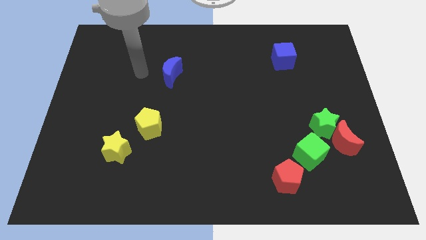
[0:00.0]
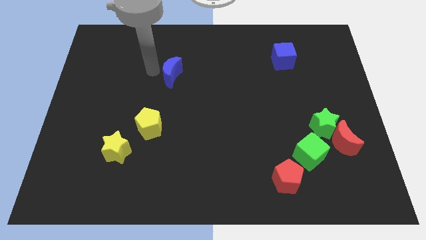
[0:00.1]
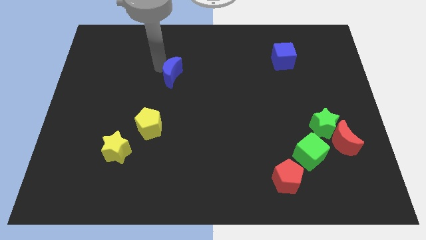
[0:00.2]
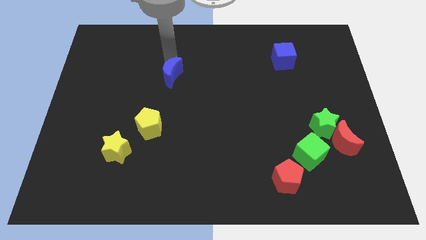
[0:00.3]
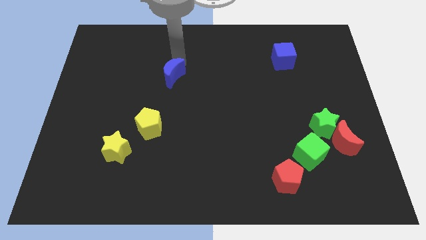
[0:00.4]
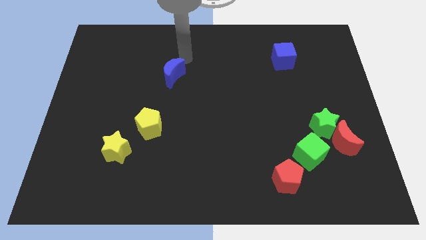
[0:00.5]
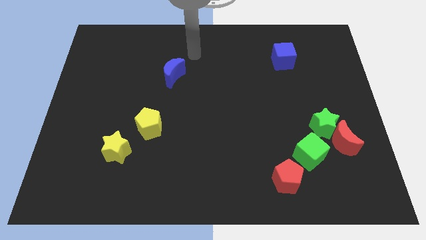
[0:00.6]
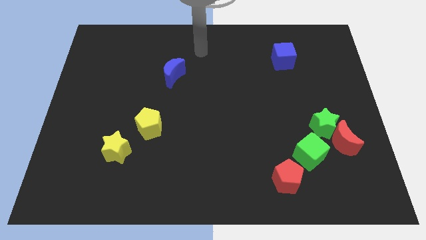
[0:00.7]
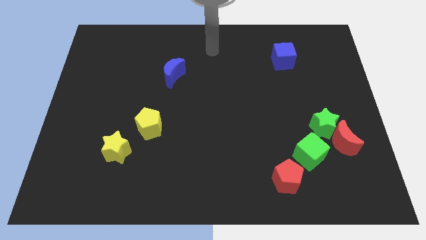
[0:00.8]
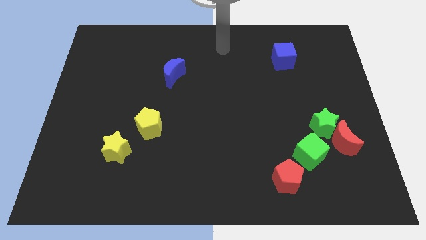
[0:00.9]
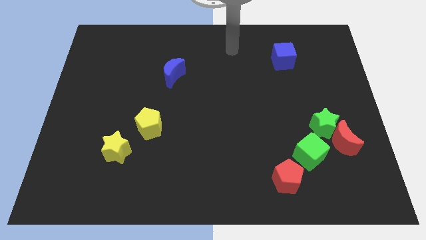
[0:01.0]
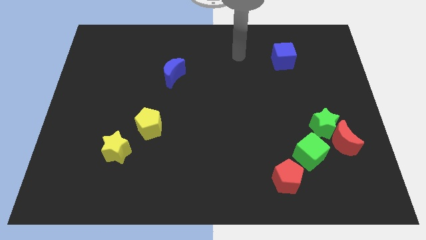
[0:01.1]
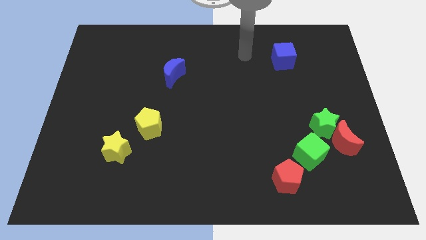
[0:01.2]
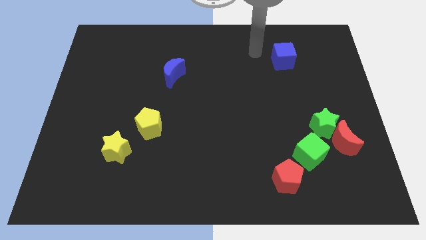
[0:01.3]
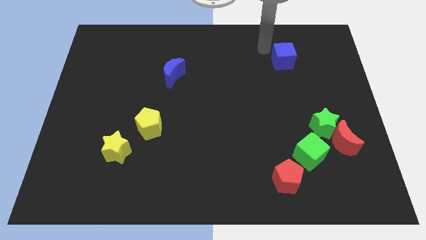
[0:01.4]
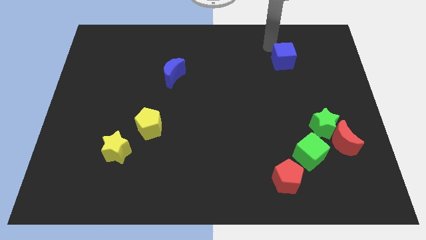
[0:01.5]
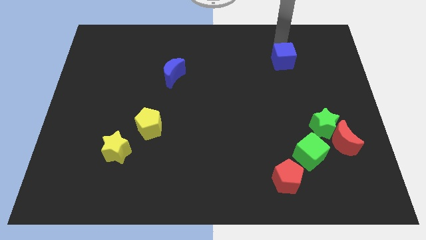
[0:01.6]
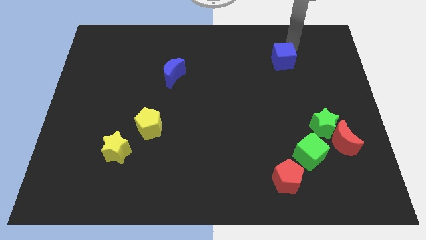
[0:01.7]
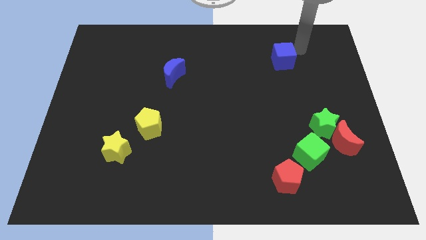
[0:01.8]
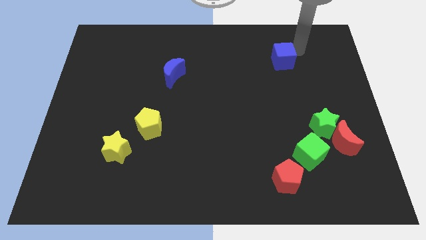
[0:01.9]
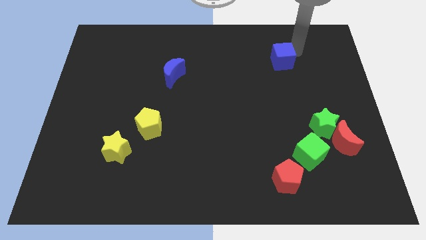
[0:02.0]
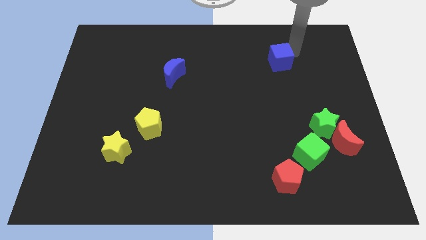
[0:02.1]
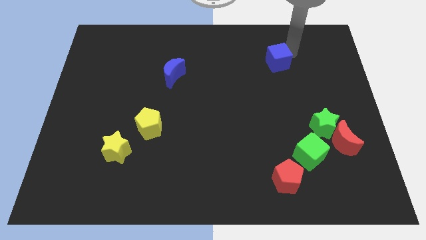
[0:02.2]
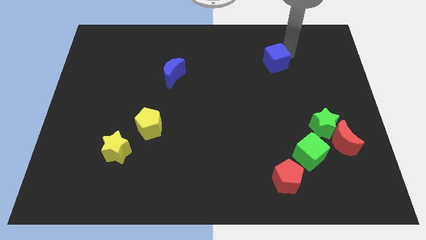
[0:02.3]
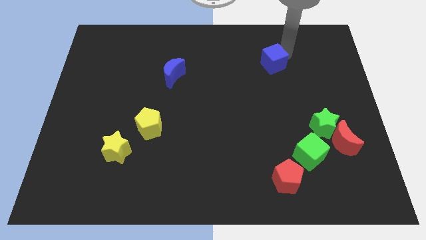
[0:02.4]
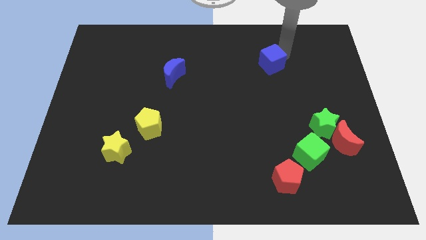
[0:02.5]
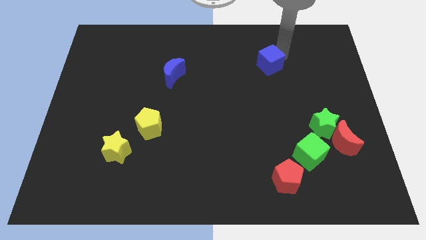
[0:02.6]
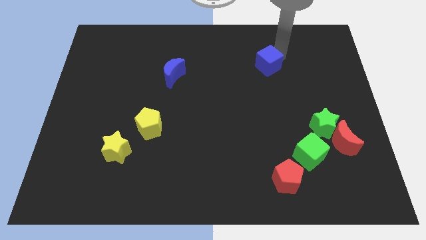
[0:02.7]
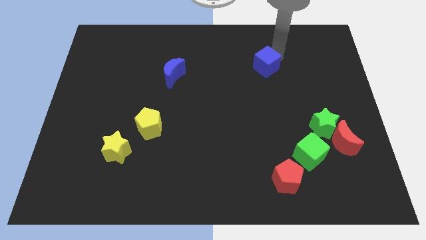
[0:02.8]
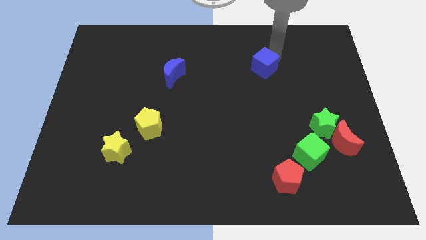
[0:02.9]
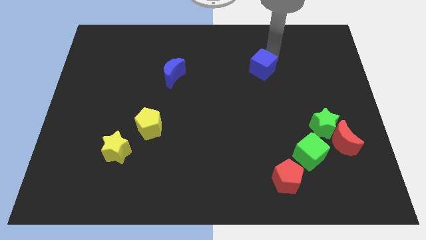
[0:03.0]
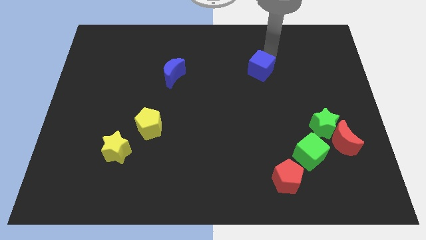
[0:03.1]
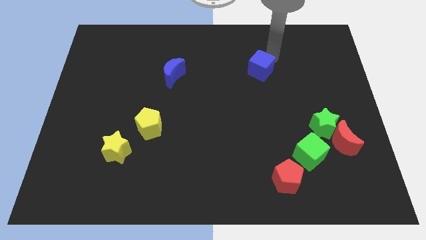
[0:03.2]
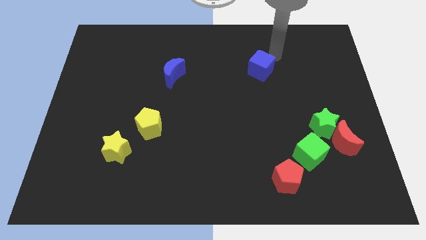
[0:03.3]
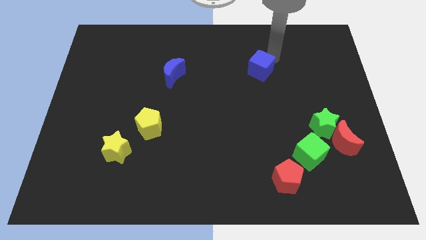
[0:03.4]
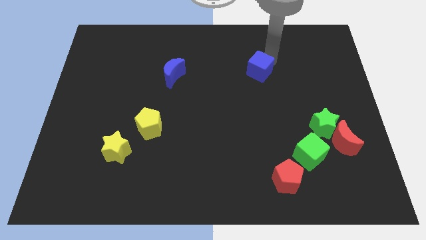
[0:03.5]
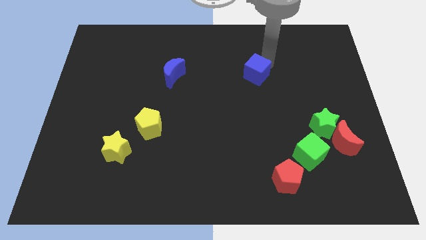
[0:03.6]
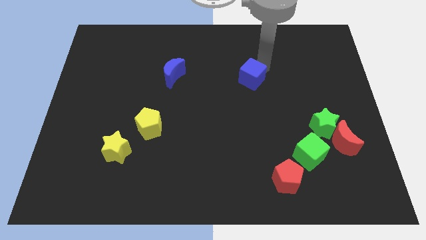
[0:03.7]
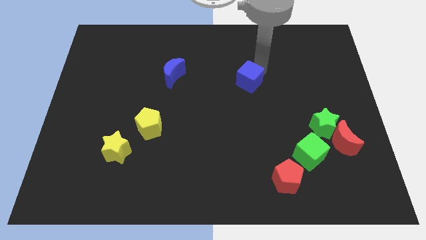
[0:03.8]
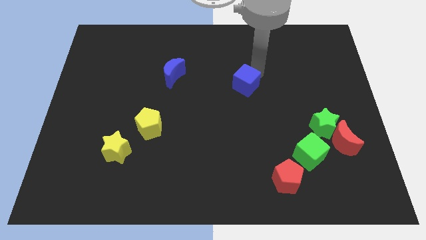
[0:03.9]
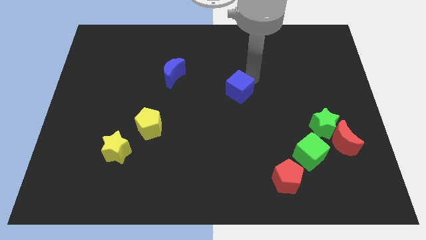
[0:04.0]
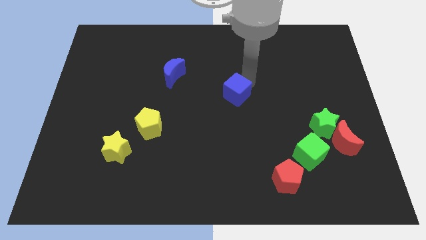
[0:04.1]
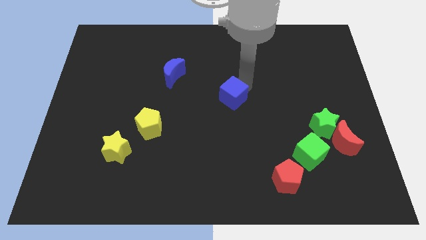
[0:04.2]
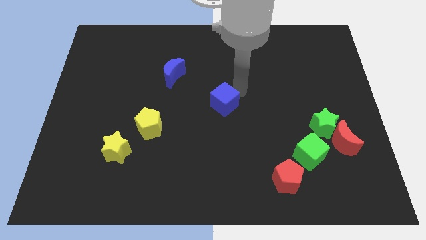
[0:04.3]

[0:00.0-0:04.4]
push the blue cube downwards and left

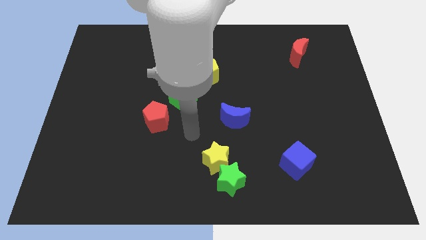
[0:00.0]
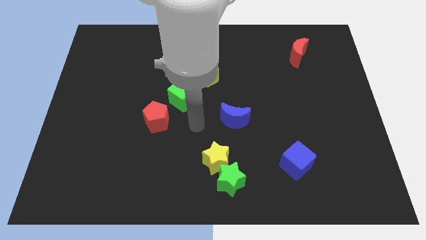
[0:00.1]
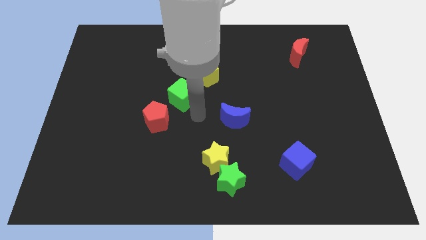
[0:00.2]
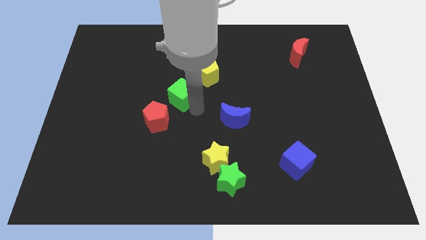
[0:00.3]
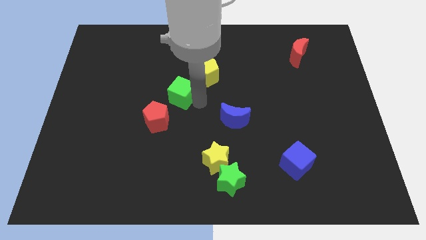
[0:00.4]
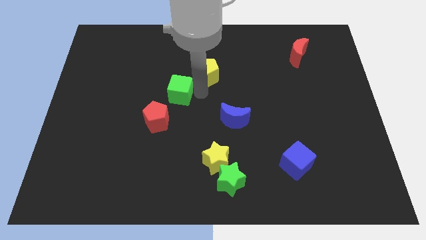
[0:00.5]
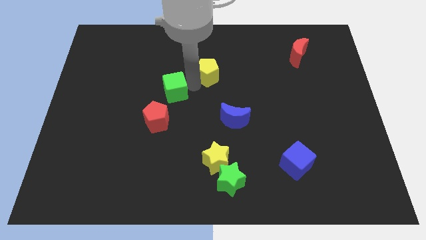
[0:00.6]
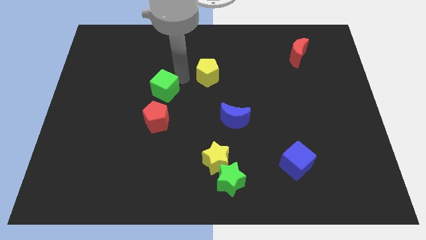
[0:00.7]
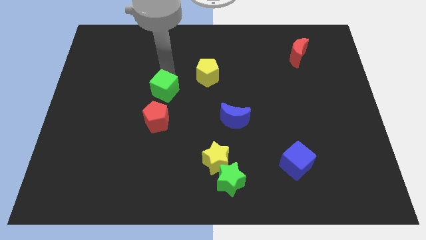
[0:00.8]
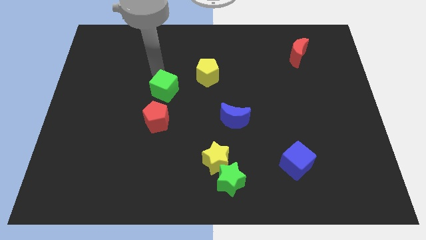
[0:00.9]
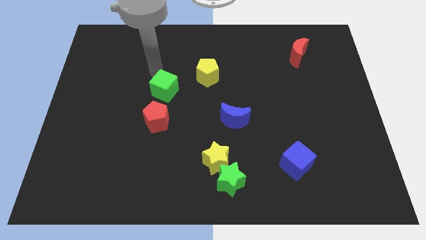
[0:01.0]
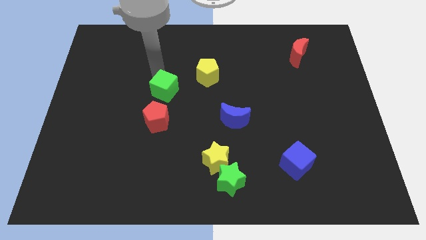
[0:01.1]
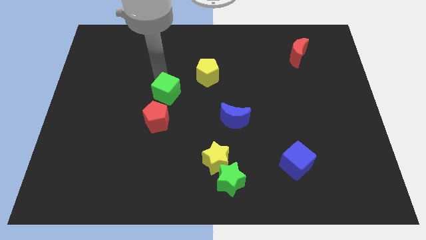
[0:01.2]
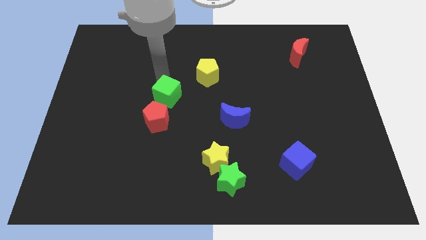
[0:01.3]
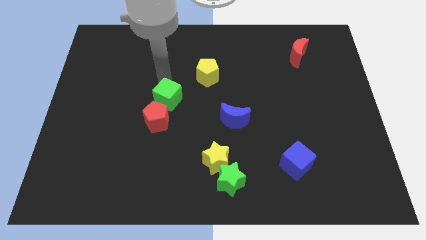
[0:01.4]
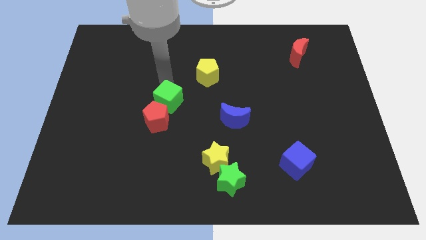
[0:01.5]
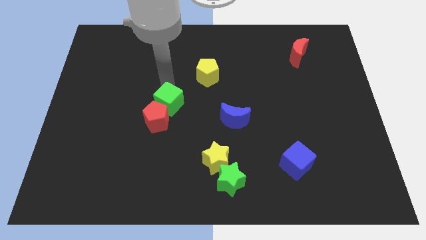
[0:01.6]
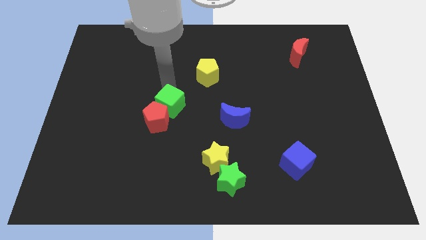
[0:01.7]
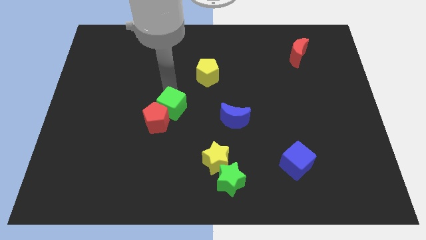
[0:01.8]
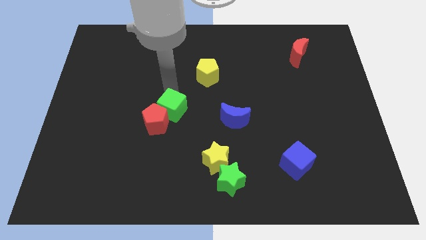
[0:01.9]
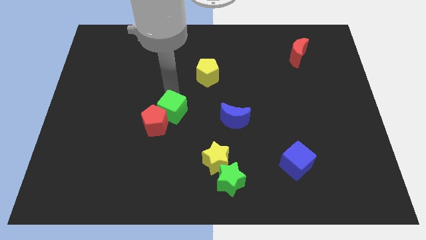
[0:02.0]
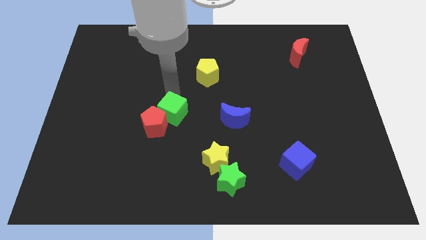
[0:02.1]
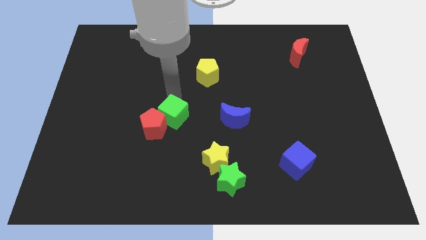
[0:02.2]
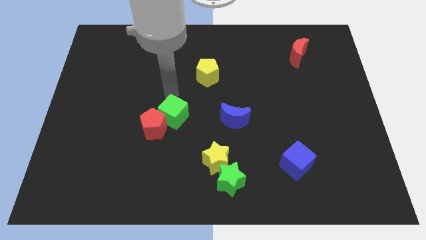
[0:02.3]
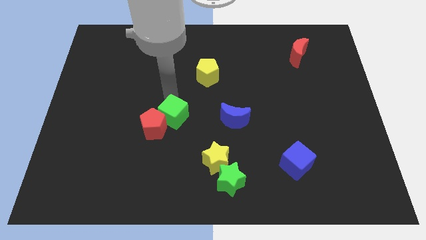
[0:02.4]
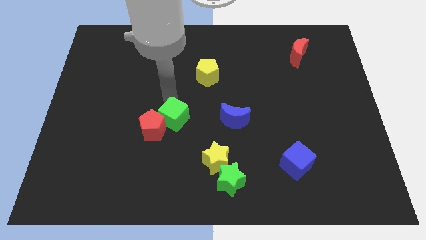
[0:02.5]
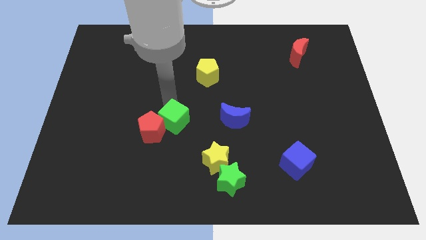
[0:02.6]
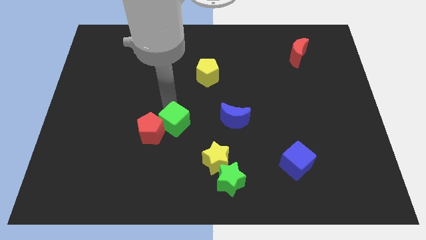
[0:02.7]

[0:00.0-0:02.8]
move the green cube downwards slightly

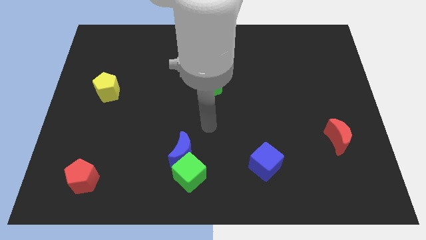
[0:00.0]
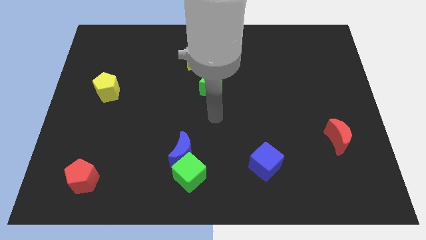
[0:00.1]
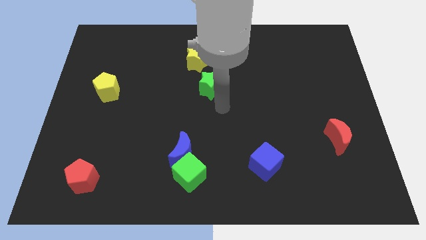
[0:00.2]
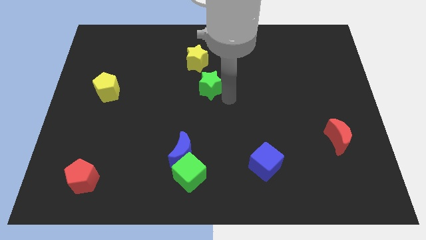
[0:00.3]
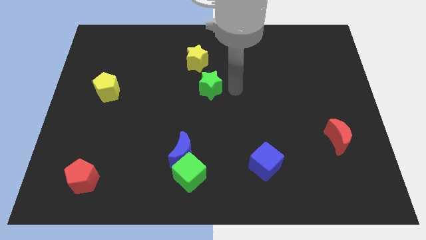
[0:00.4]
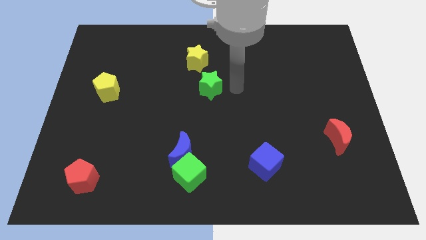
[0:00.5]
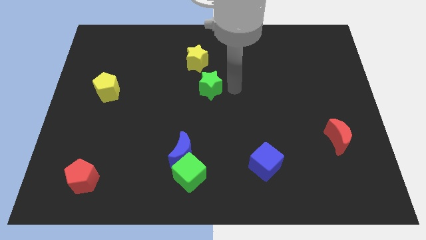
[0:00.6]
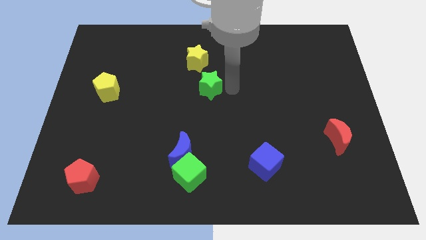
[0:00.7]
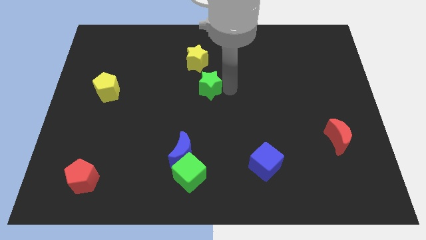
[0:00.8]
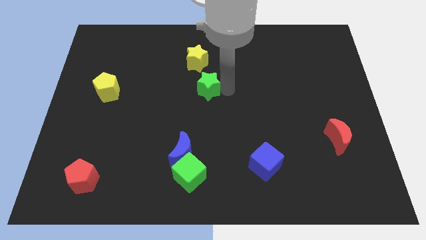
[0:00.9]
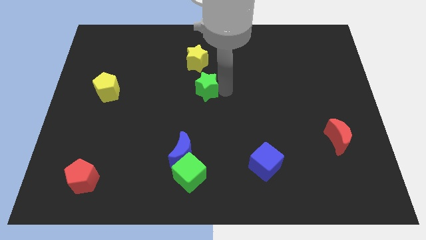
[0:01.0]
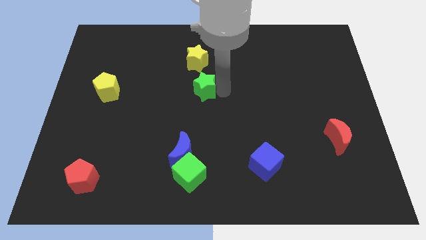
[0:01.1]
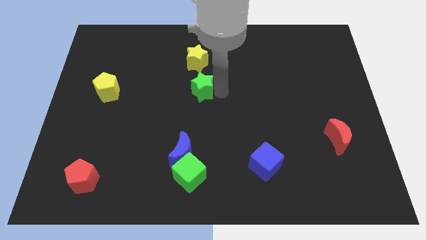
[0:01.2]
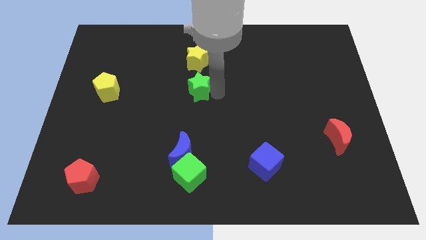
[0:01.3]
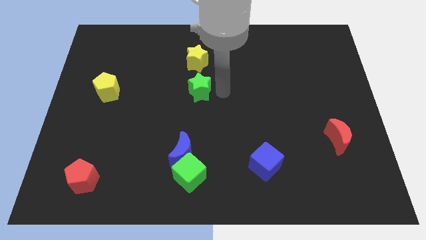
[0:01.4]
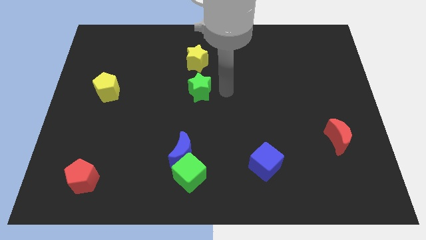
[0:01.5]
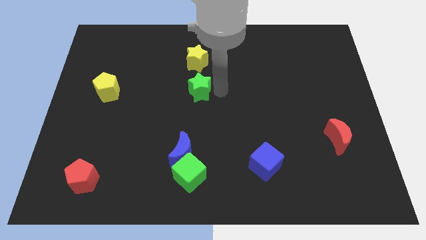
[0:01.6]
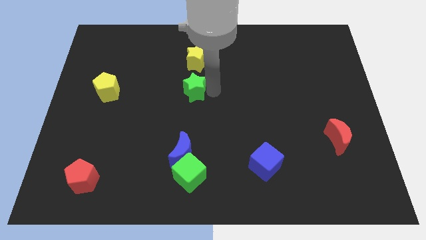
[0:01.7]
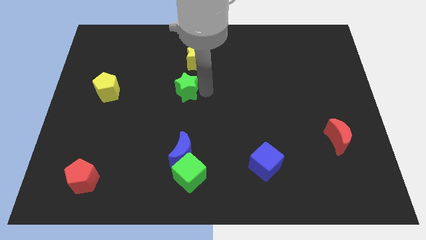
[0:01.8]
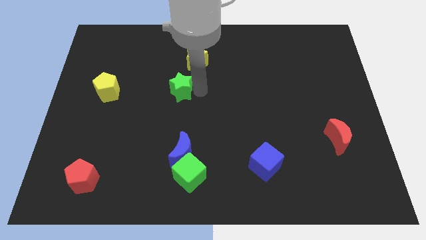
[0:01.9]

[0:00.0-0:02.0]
move the green star a little to the left
